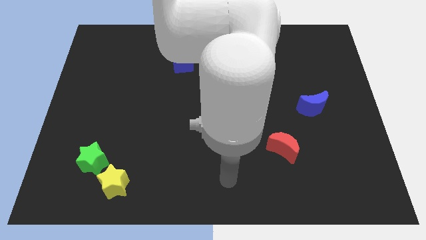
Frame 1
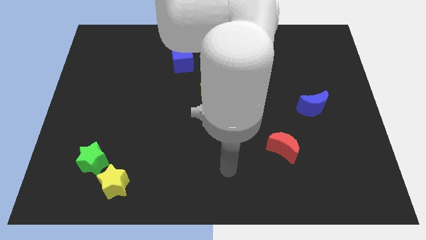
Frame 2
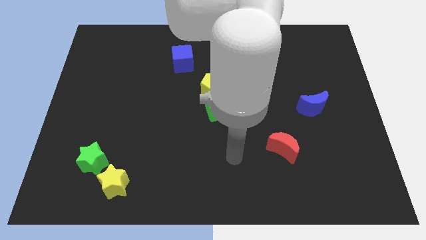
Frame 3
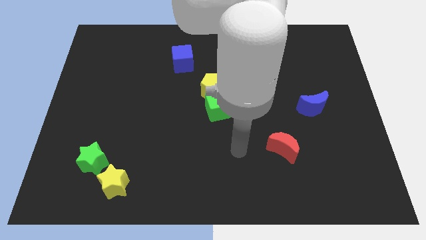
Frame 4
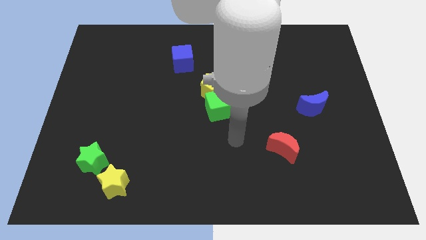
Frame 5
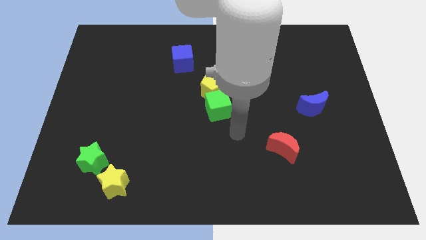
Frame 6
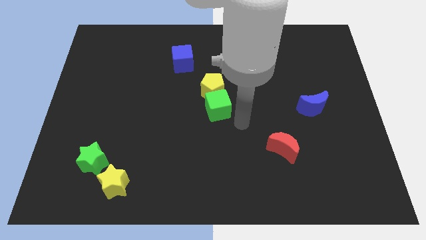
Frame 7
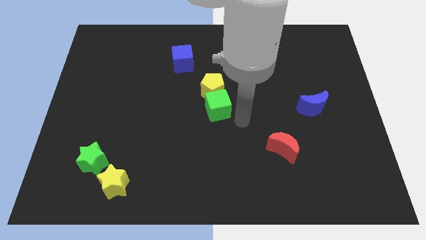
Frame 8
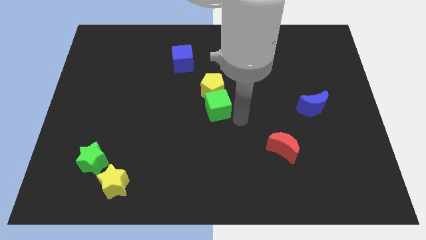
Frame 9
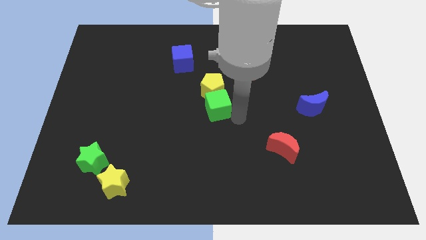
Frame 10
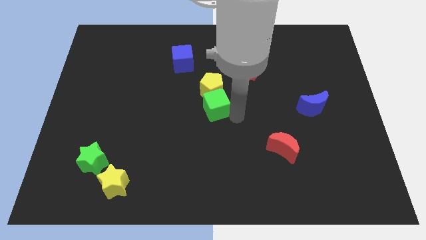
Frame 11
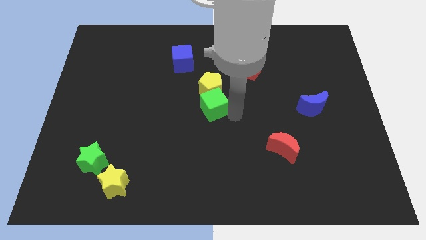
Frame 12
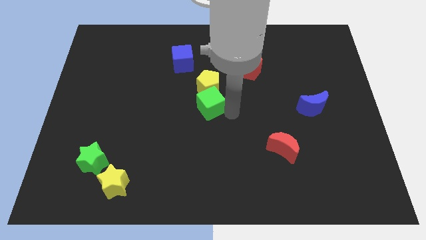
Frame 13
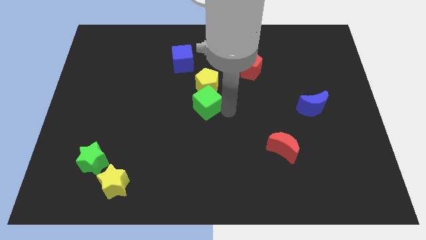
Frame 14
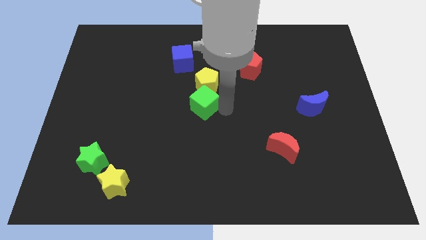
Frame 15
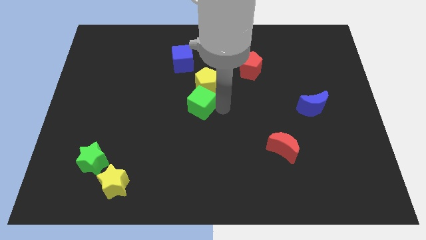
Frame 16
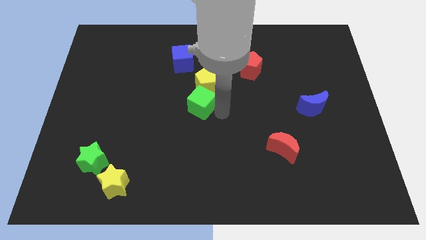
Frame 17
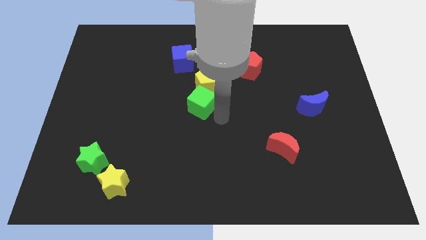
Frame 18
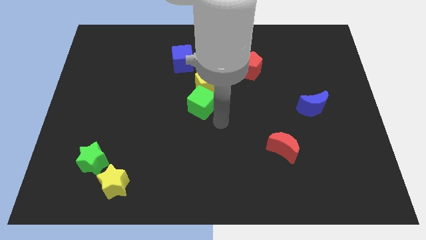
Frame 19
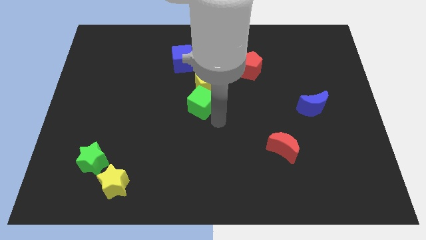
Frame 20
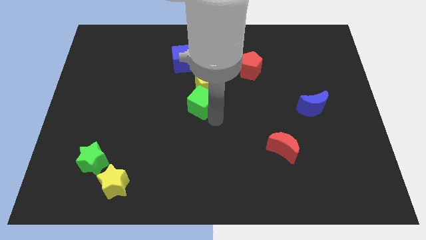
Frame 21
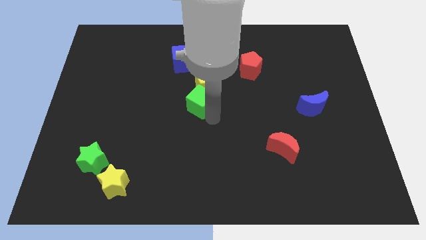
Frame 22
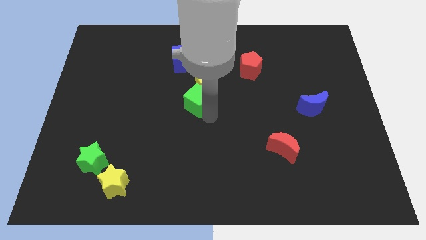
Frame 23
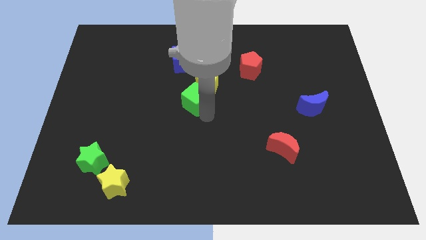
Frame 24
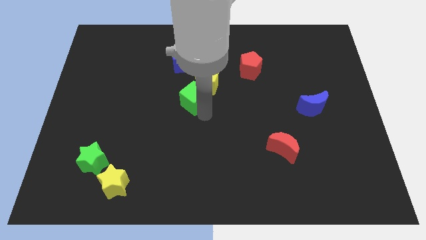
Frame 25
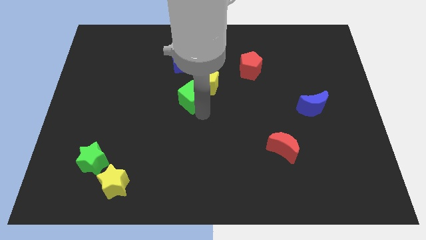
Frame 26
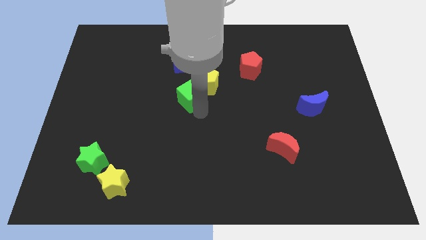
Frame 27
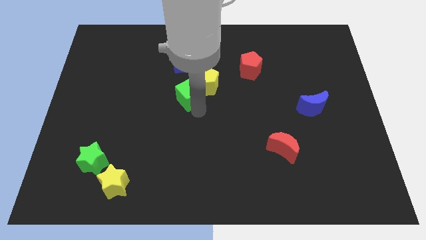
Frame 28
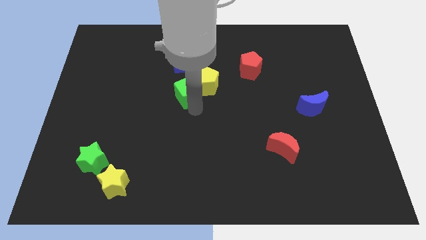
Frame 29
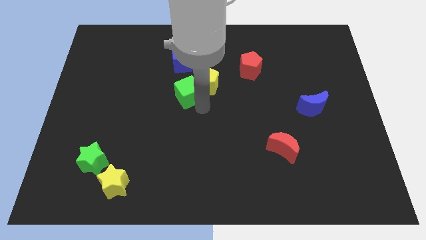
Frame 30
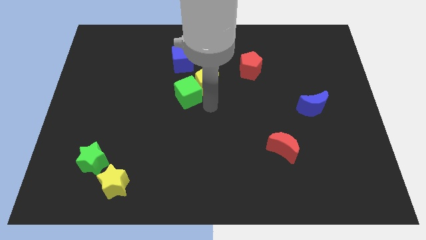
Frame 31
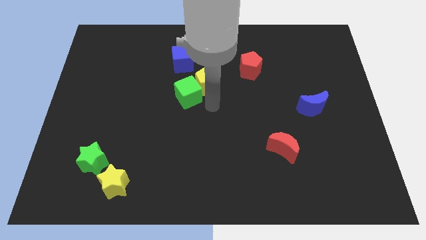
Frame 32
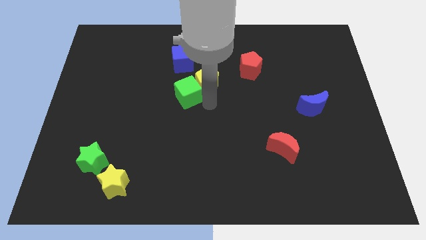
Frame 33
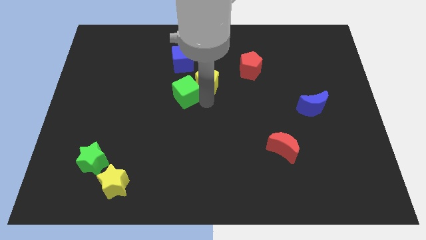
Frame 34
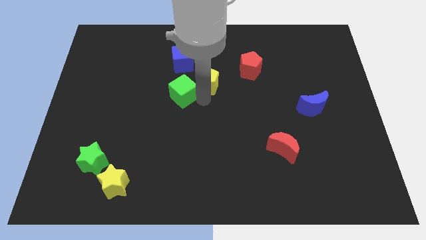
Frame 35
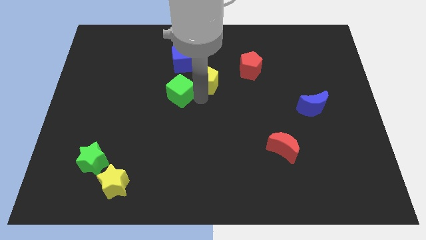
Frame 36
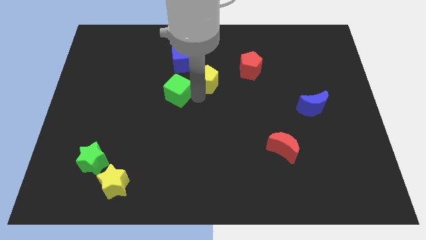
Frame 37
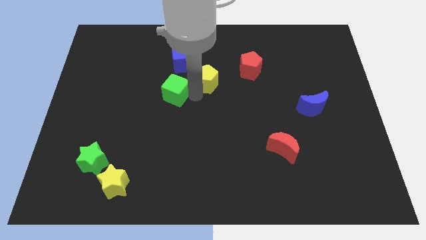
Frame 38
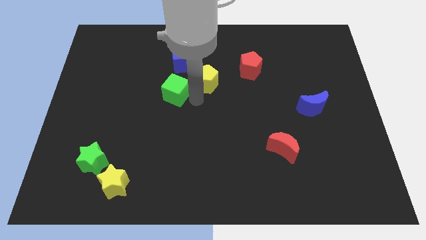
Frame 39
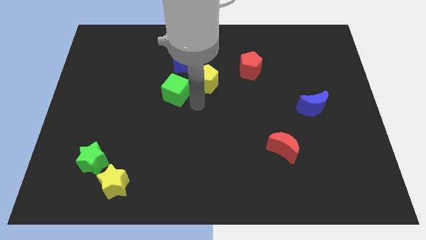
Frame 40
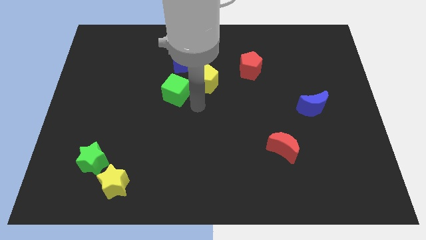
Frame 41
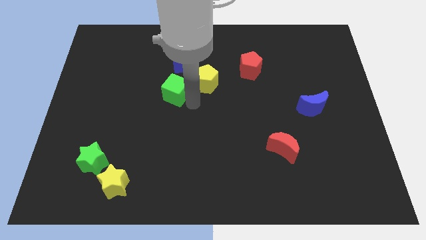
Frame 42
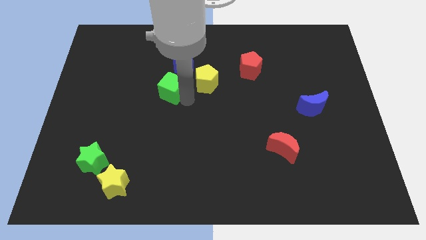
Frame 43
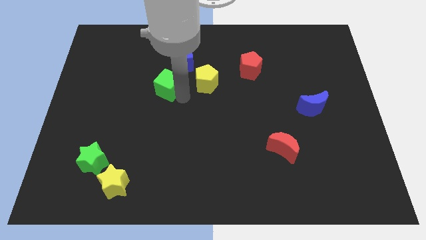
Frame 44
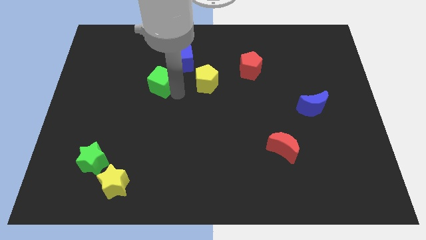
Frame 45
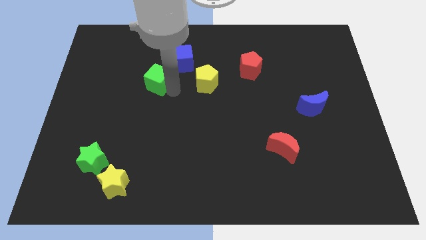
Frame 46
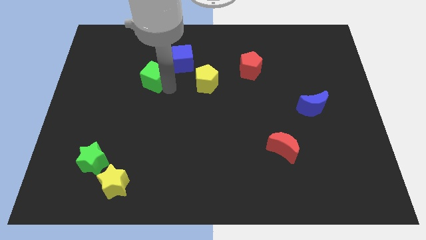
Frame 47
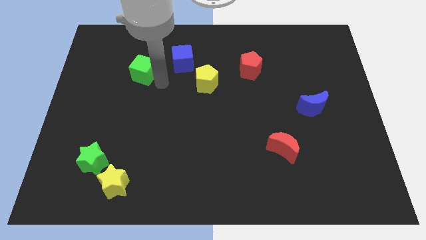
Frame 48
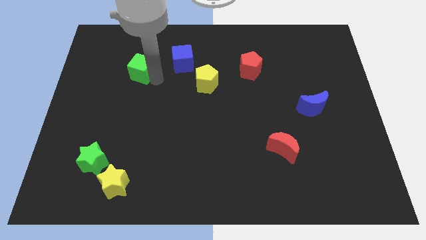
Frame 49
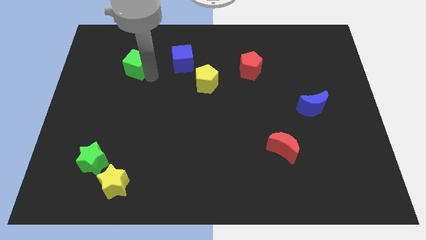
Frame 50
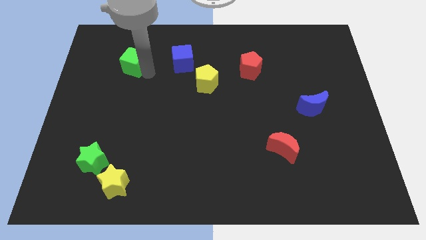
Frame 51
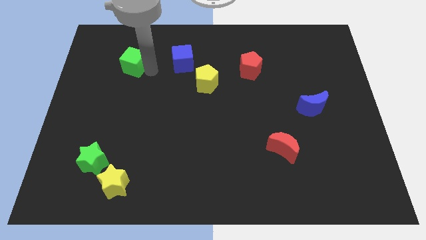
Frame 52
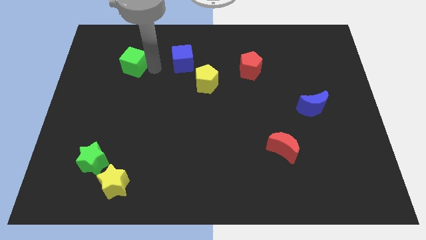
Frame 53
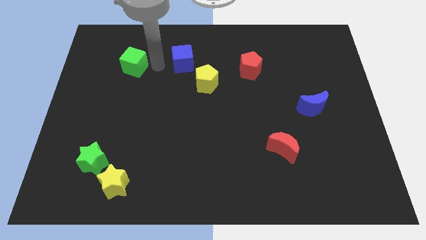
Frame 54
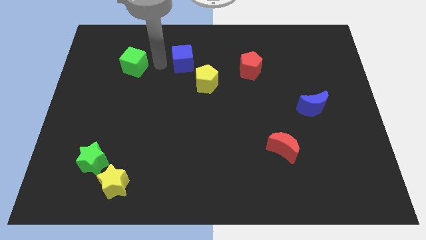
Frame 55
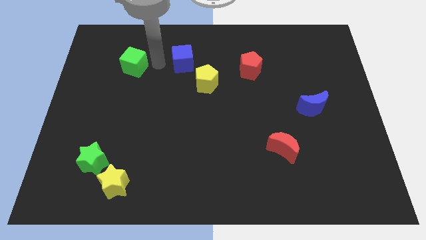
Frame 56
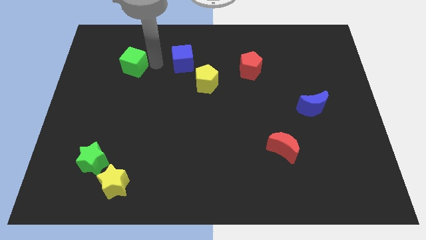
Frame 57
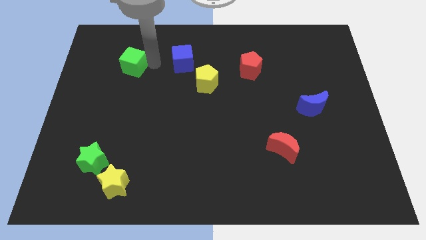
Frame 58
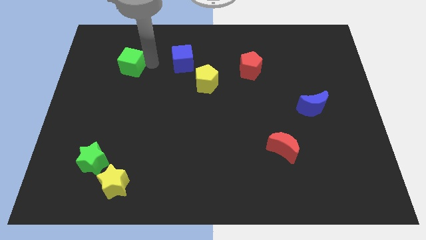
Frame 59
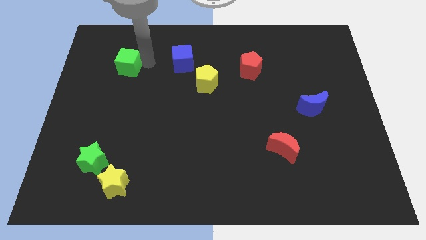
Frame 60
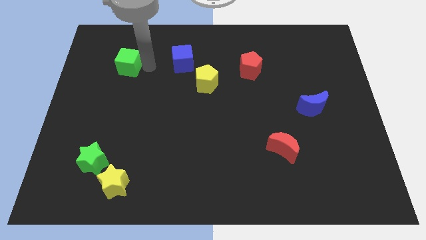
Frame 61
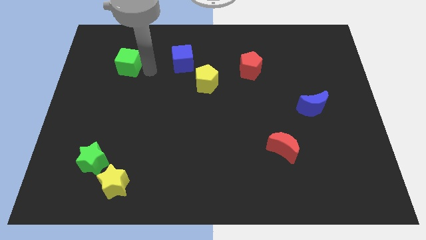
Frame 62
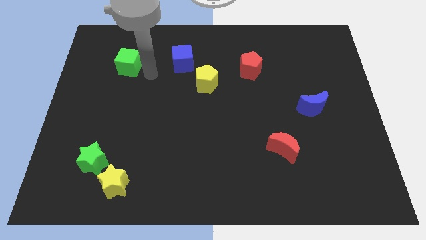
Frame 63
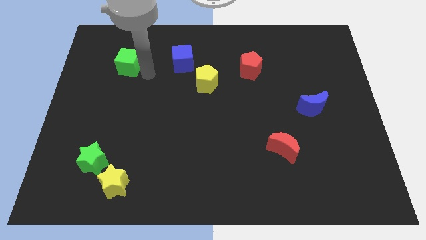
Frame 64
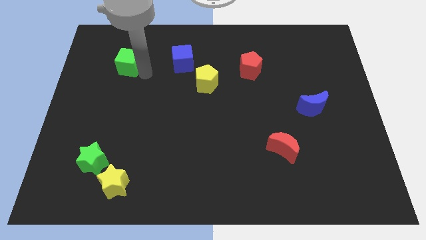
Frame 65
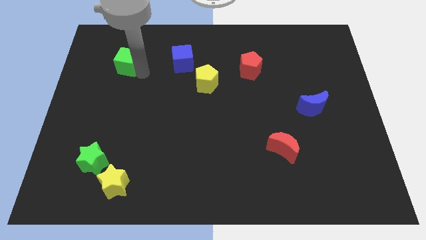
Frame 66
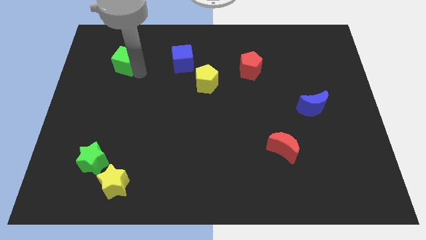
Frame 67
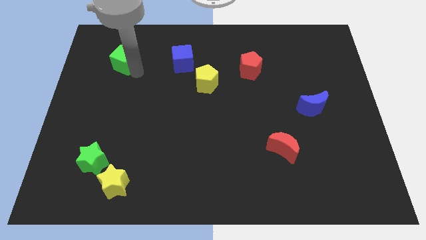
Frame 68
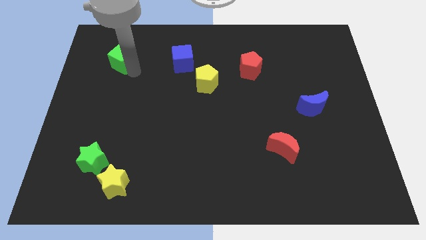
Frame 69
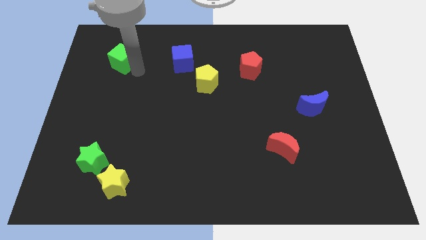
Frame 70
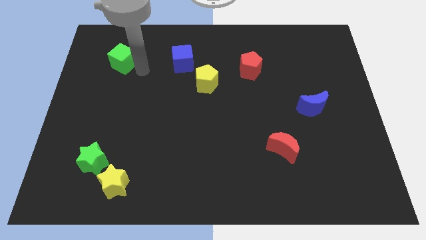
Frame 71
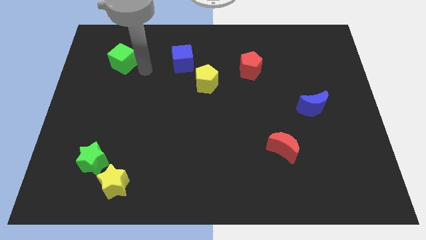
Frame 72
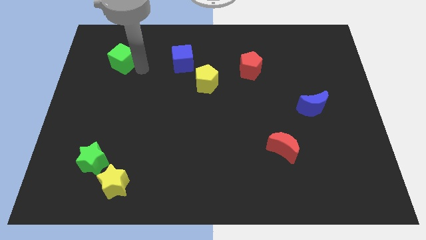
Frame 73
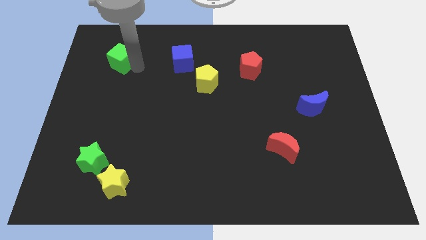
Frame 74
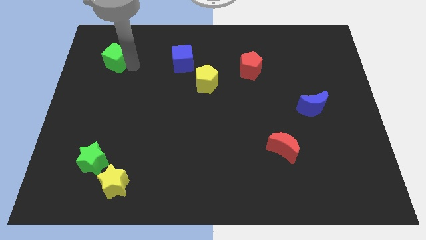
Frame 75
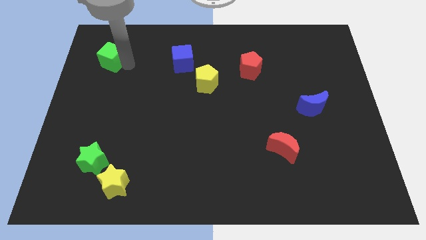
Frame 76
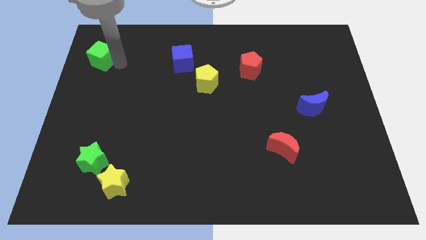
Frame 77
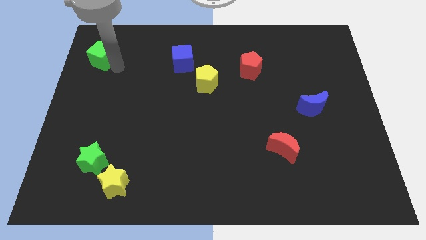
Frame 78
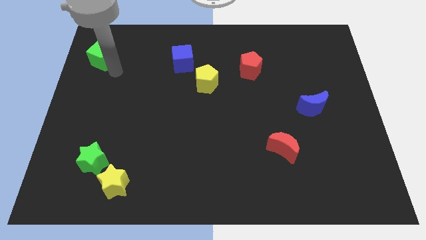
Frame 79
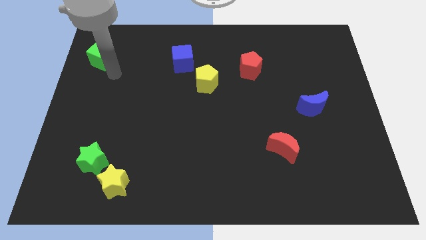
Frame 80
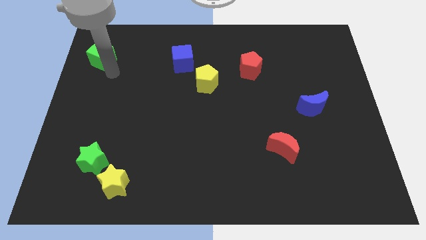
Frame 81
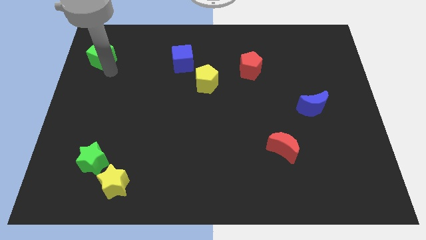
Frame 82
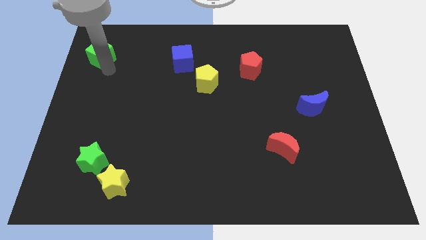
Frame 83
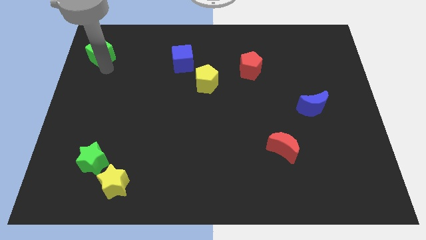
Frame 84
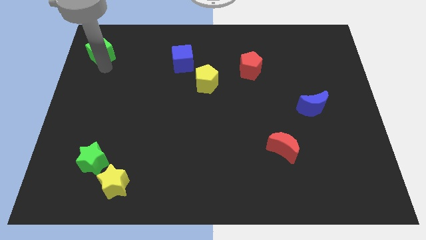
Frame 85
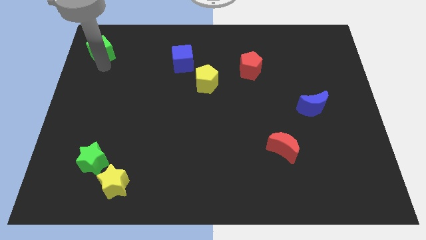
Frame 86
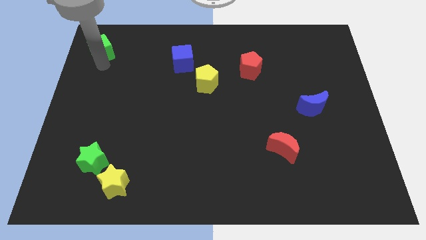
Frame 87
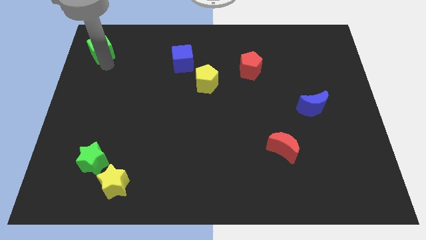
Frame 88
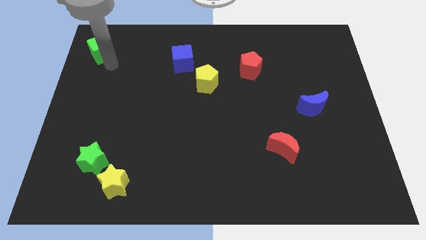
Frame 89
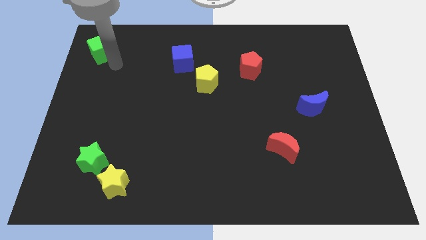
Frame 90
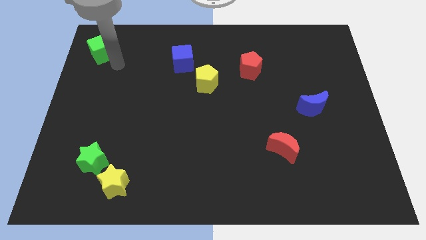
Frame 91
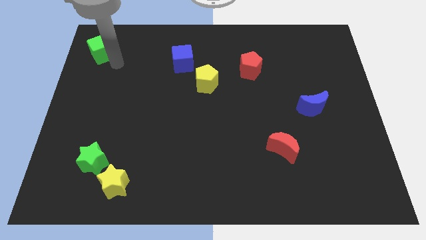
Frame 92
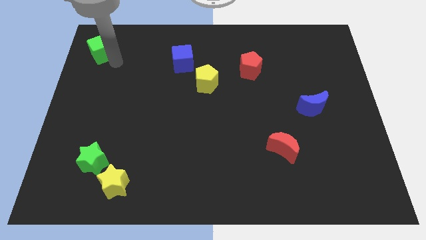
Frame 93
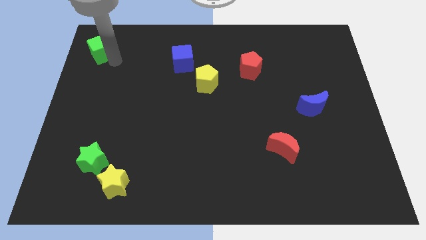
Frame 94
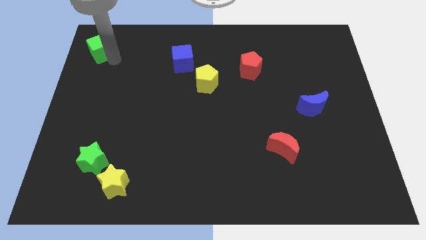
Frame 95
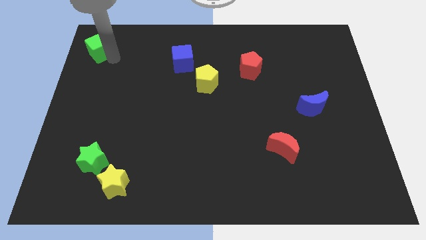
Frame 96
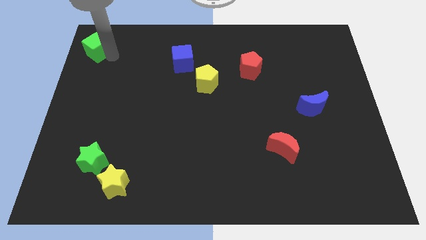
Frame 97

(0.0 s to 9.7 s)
push the green cube to the top left
